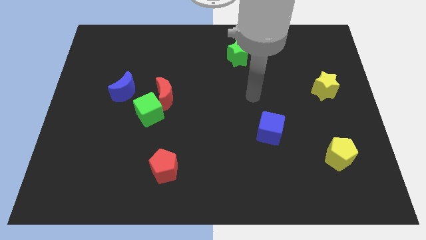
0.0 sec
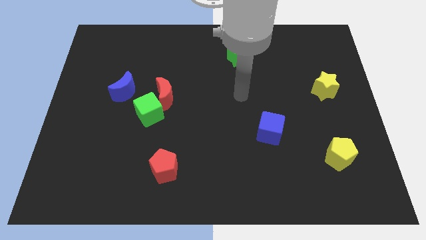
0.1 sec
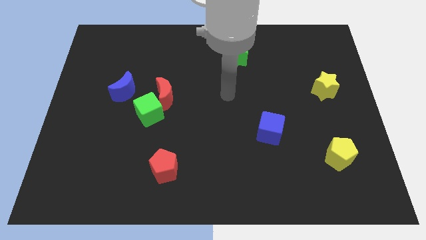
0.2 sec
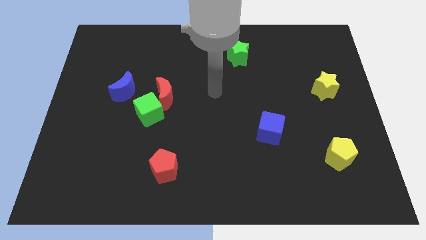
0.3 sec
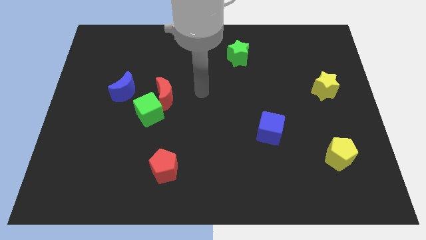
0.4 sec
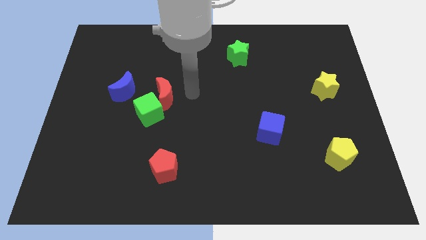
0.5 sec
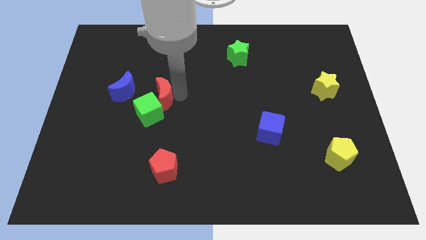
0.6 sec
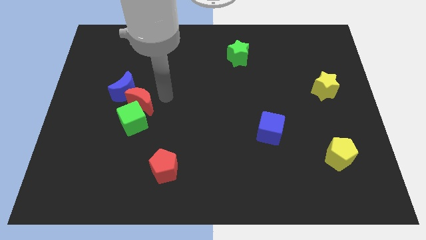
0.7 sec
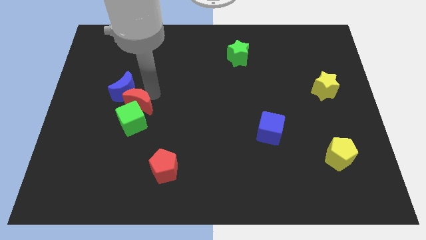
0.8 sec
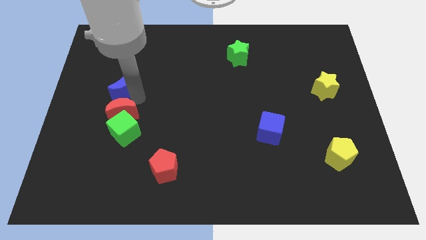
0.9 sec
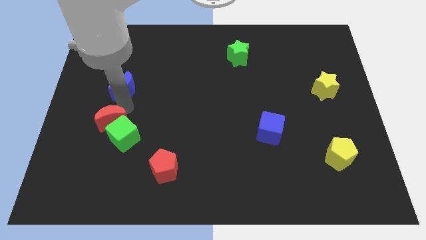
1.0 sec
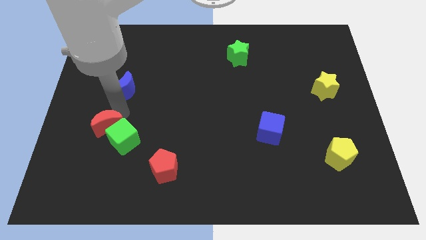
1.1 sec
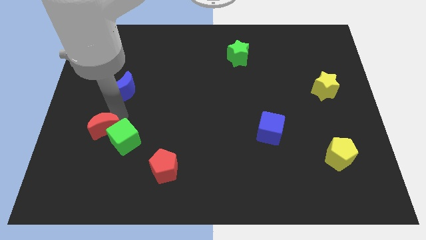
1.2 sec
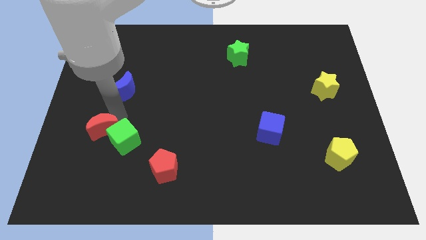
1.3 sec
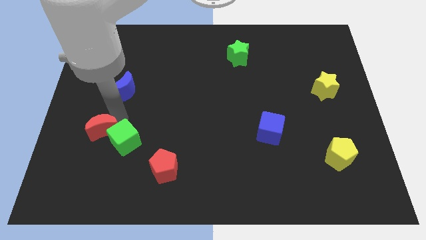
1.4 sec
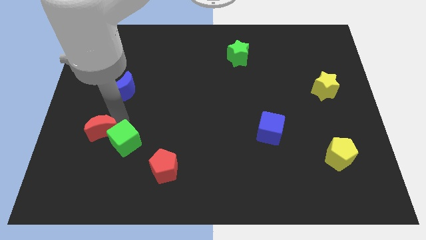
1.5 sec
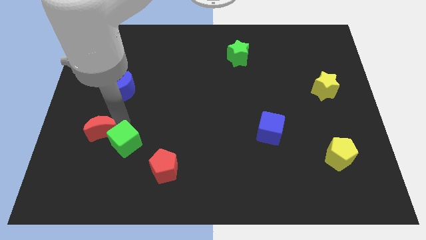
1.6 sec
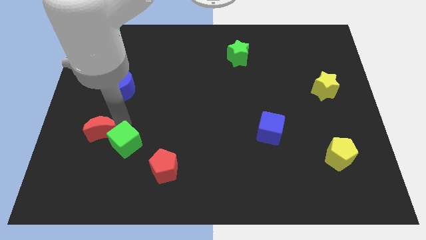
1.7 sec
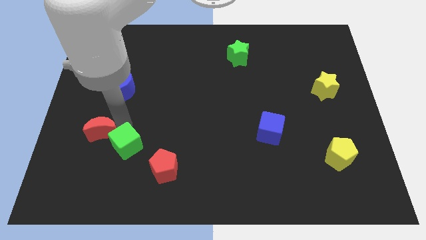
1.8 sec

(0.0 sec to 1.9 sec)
move the green cube away from the red moon and blue moon

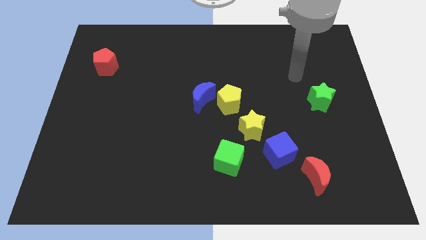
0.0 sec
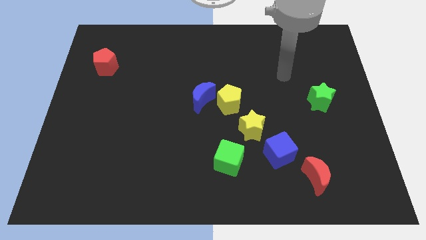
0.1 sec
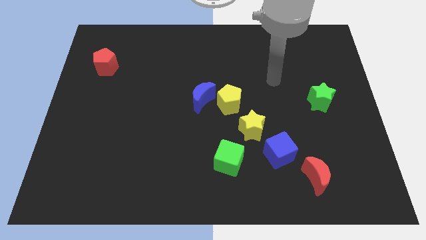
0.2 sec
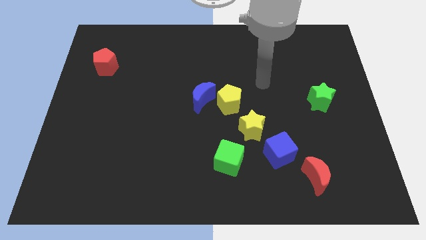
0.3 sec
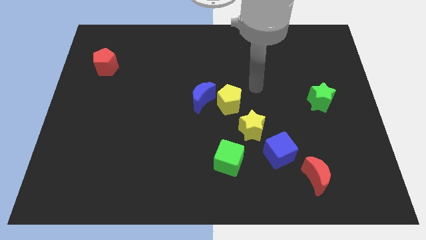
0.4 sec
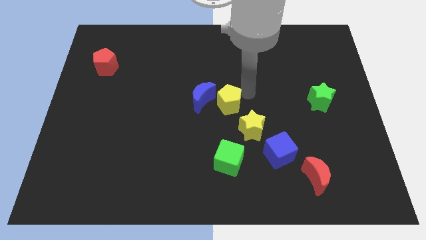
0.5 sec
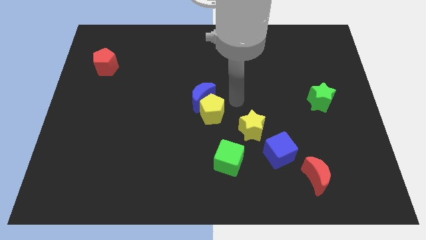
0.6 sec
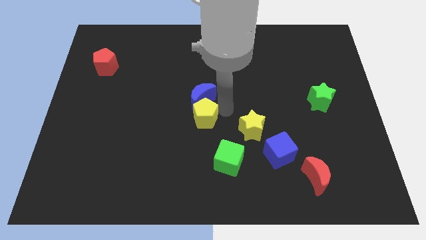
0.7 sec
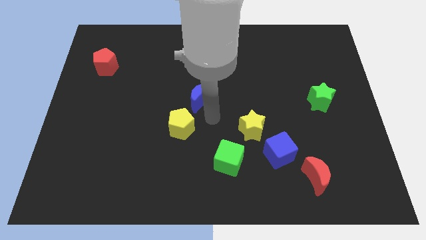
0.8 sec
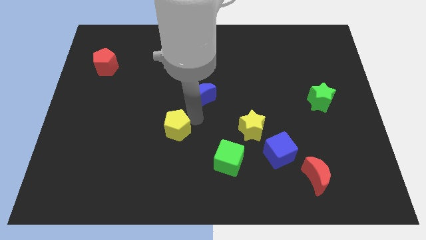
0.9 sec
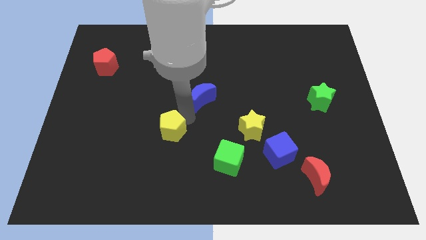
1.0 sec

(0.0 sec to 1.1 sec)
pull the blue moon apart from the yellow pentagon

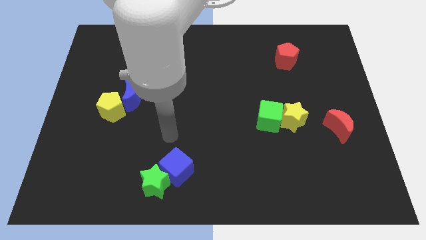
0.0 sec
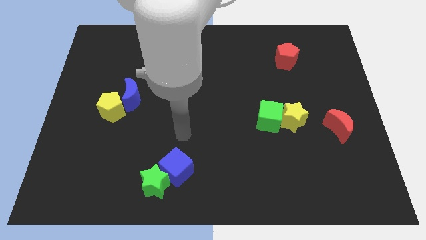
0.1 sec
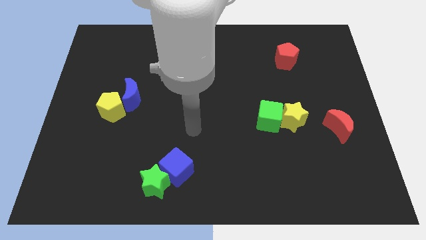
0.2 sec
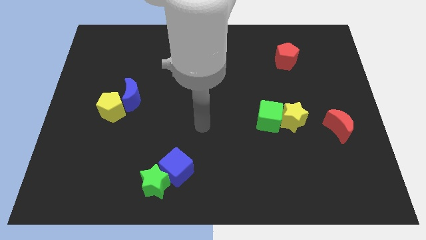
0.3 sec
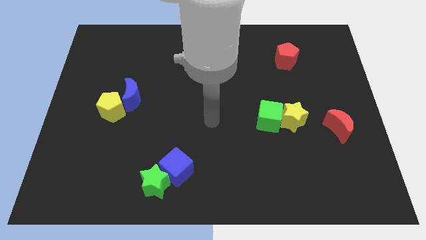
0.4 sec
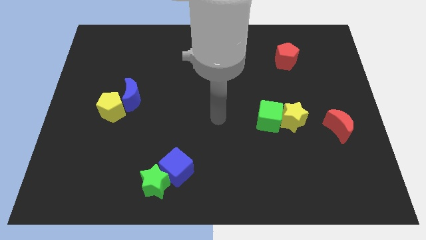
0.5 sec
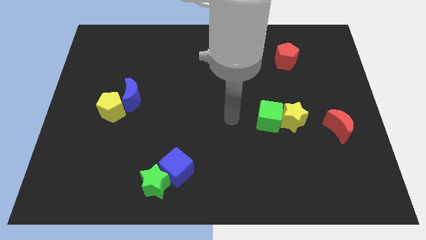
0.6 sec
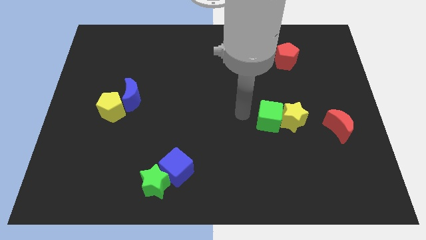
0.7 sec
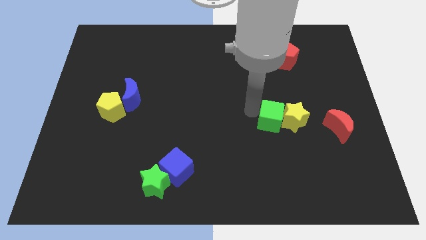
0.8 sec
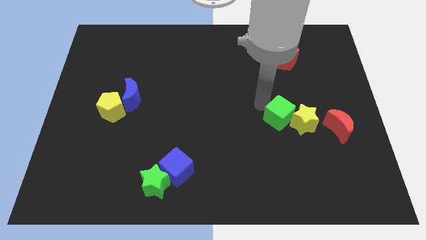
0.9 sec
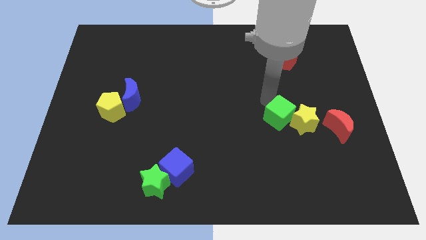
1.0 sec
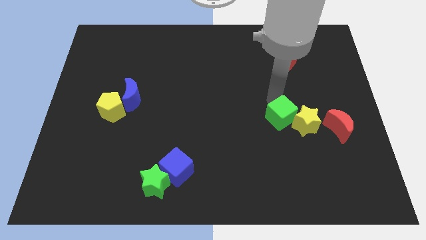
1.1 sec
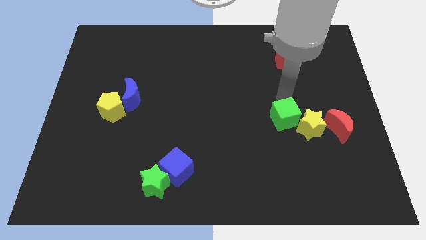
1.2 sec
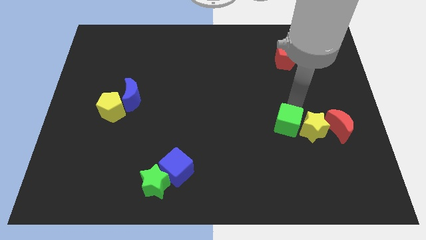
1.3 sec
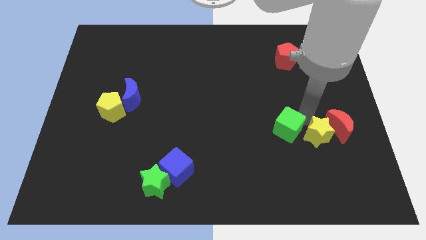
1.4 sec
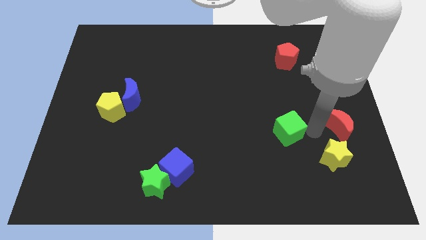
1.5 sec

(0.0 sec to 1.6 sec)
separate the green cube from the yellow star

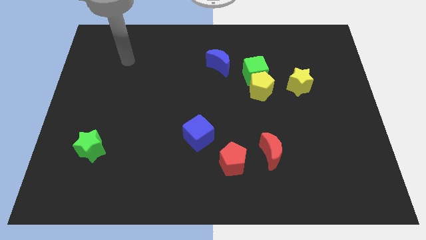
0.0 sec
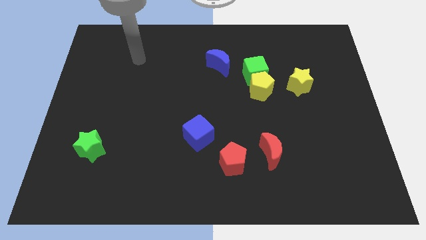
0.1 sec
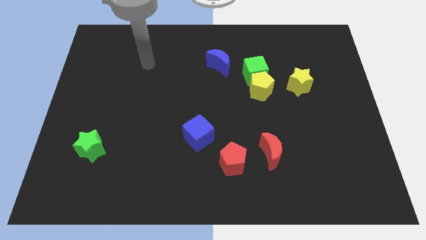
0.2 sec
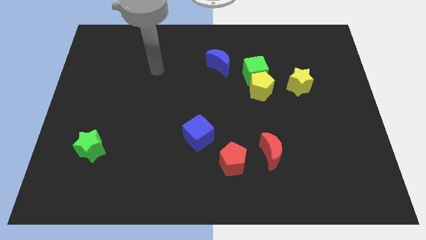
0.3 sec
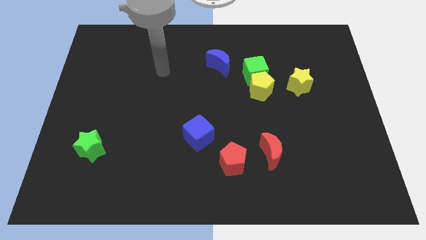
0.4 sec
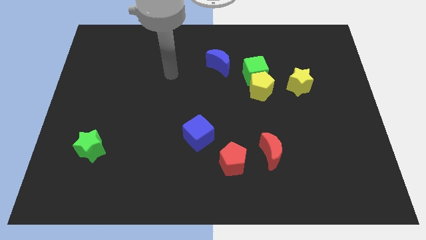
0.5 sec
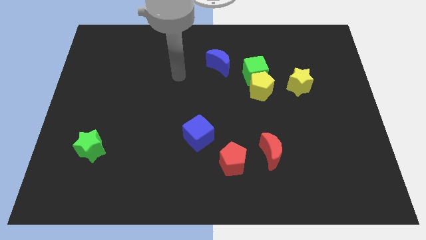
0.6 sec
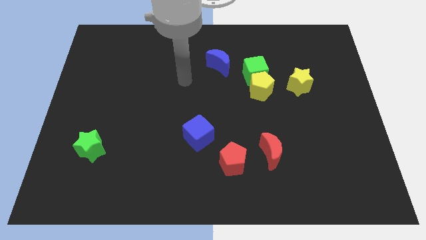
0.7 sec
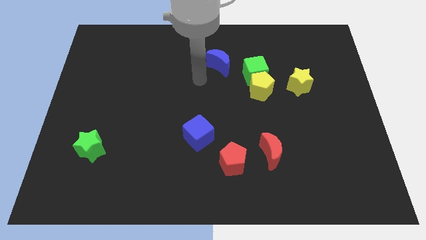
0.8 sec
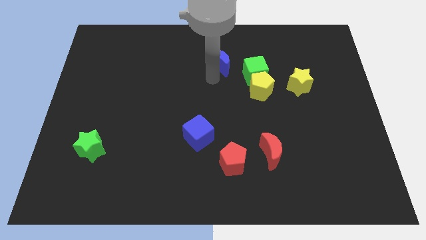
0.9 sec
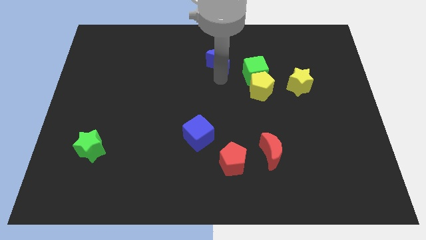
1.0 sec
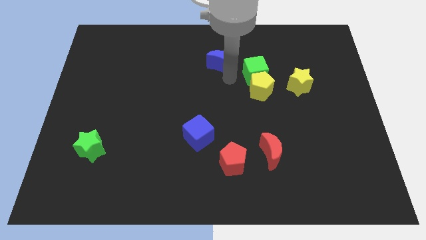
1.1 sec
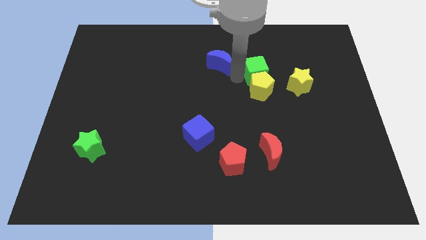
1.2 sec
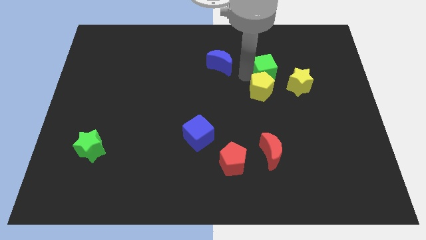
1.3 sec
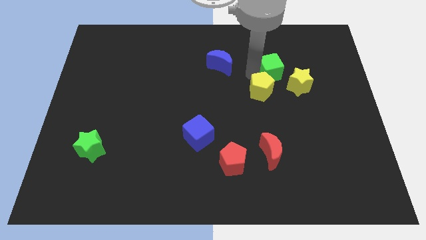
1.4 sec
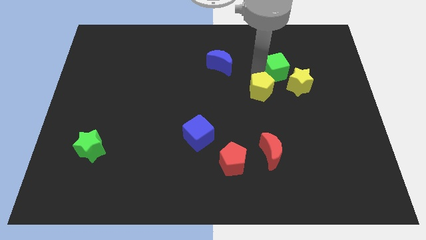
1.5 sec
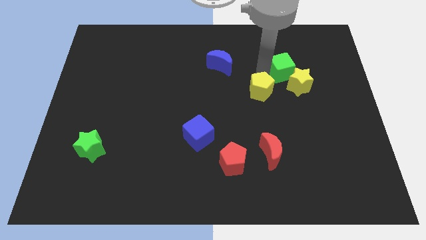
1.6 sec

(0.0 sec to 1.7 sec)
separate the green cube from the yellow pentagon and blue moon

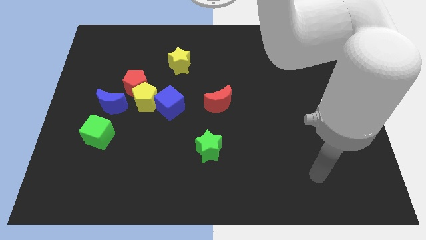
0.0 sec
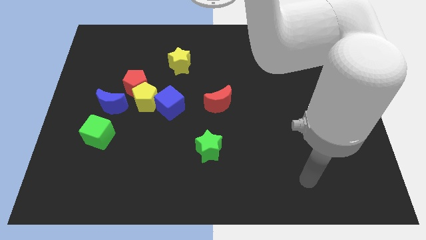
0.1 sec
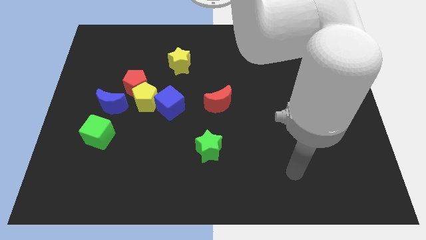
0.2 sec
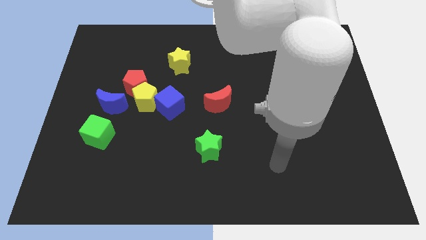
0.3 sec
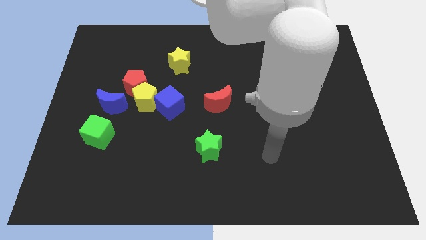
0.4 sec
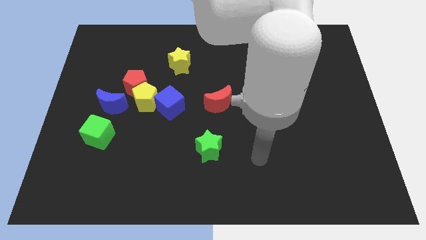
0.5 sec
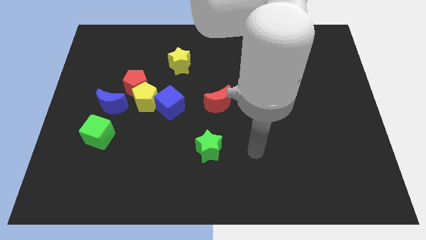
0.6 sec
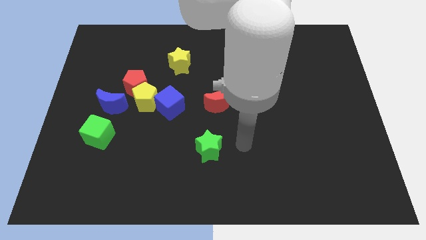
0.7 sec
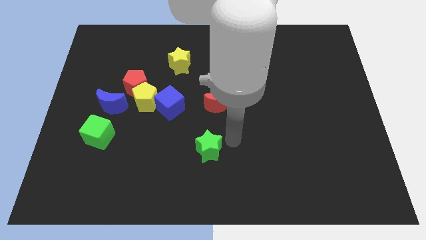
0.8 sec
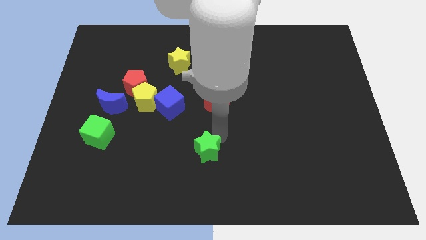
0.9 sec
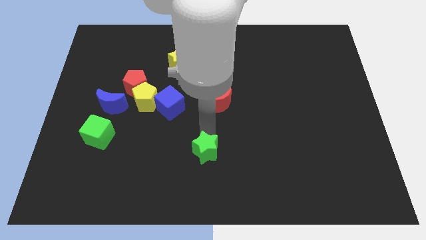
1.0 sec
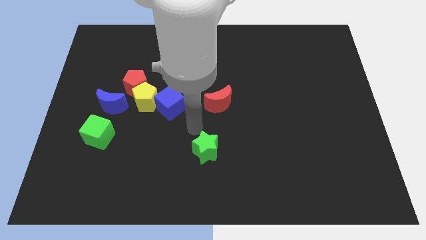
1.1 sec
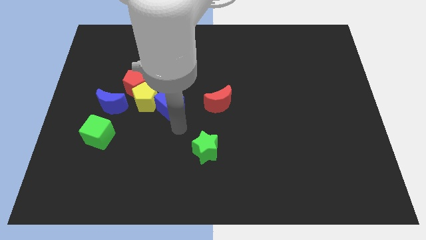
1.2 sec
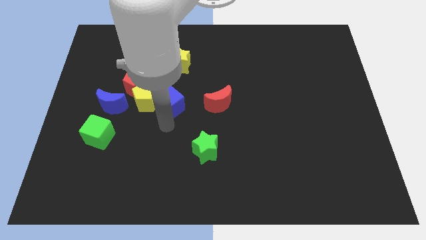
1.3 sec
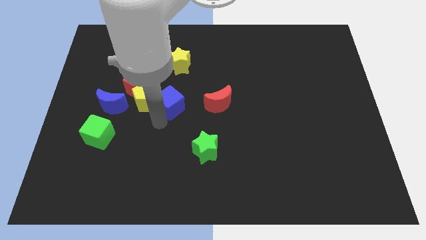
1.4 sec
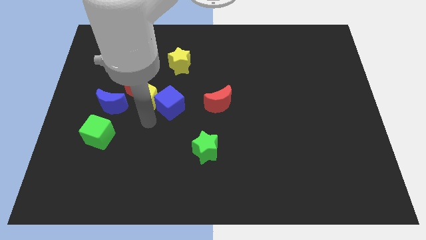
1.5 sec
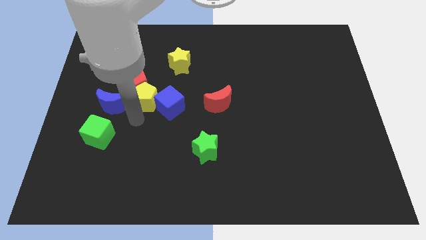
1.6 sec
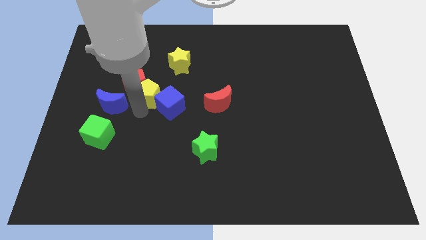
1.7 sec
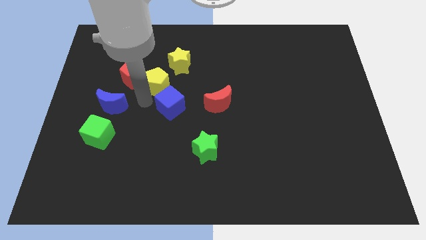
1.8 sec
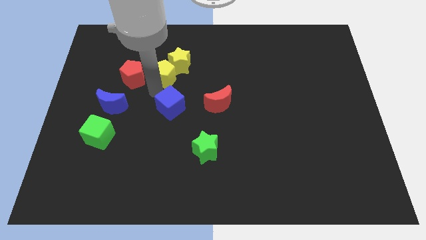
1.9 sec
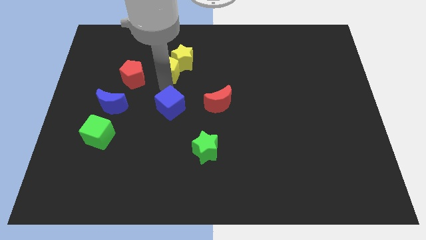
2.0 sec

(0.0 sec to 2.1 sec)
pull the blue cube apart from the yellow pentagon

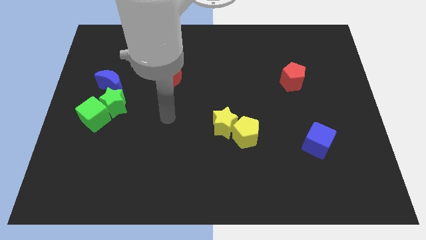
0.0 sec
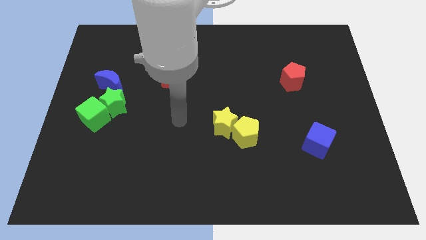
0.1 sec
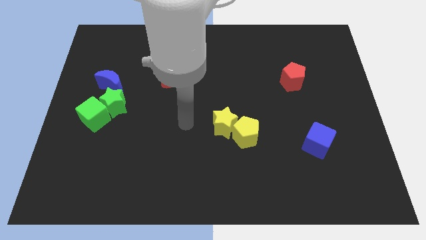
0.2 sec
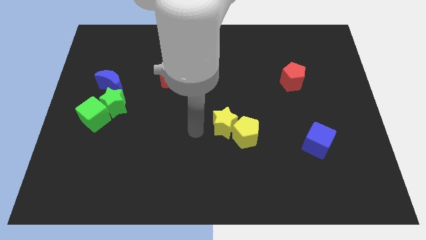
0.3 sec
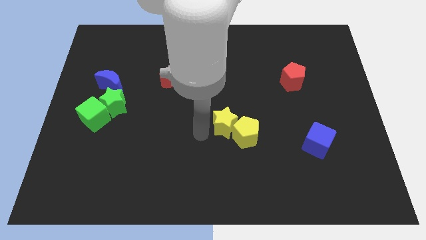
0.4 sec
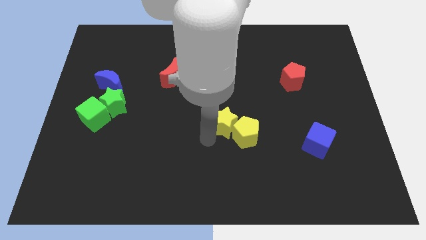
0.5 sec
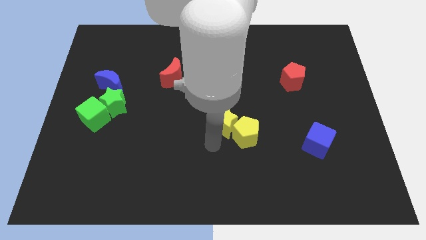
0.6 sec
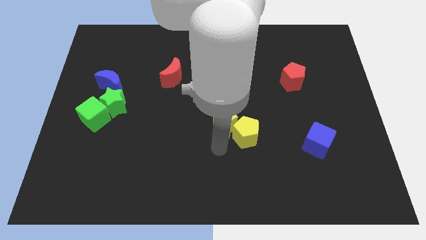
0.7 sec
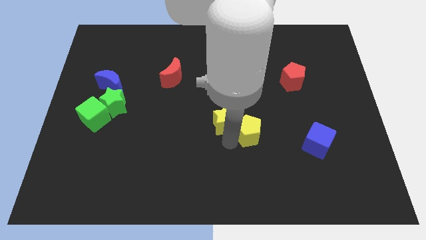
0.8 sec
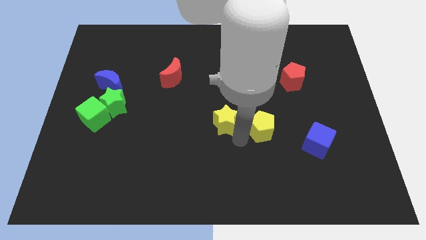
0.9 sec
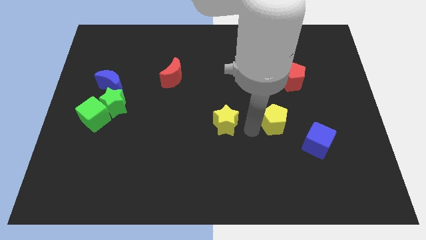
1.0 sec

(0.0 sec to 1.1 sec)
move the yellow star away from the yellow pentagon
